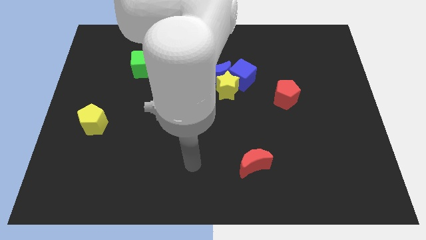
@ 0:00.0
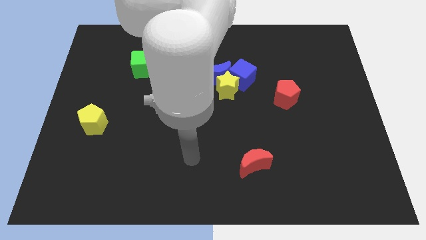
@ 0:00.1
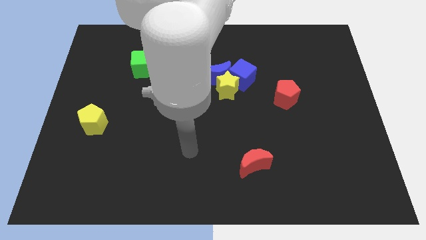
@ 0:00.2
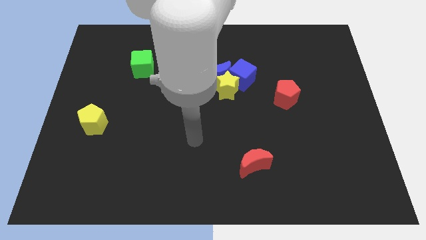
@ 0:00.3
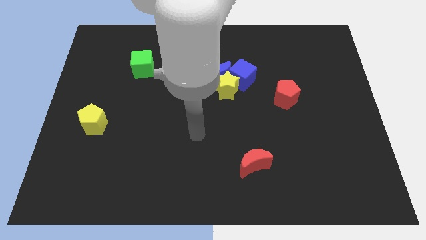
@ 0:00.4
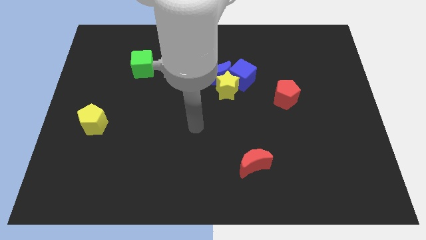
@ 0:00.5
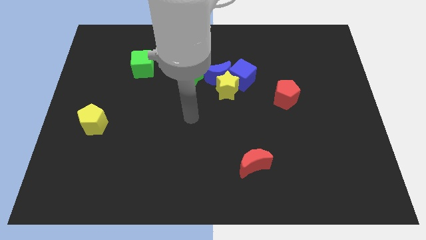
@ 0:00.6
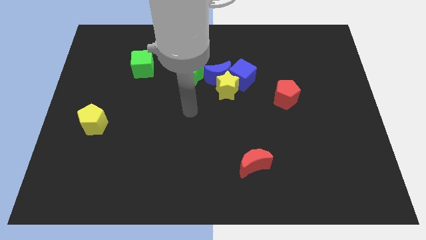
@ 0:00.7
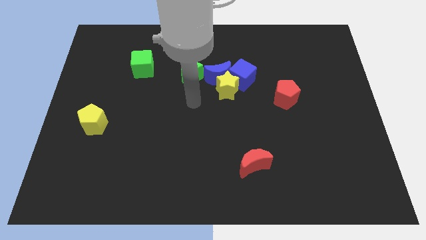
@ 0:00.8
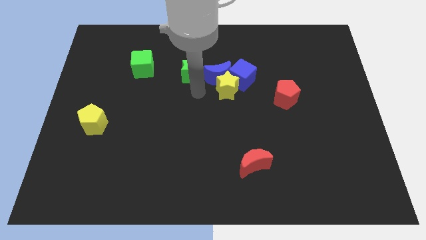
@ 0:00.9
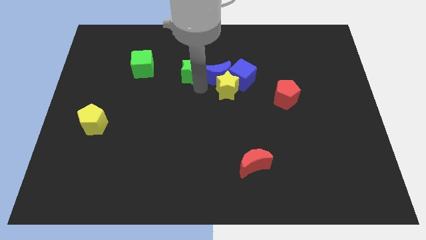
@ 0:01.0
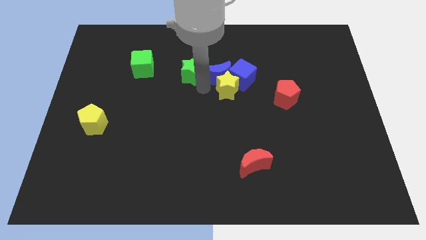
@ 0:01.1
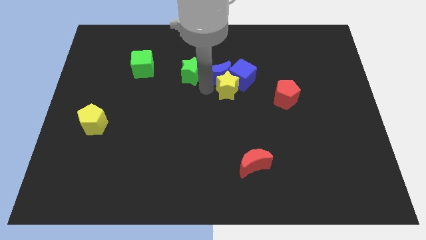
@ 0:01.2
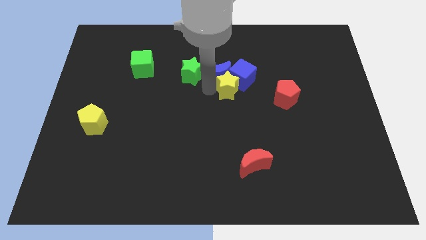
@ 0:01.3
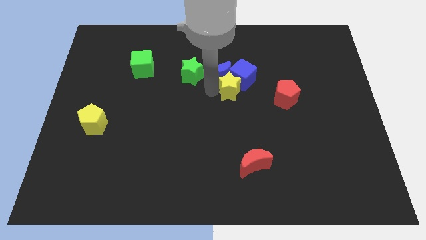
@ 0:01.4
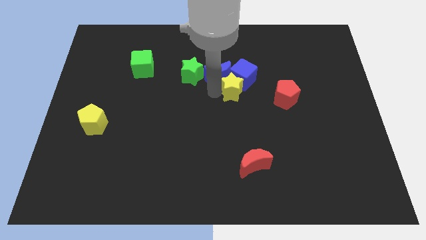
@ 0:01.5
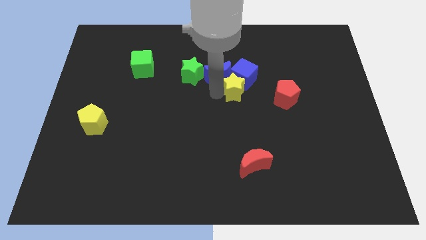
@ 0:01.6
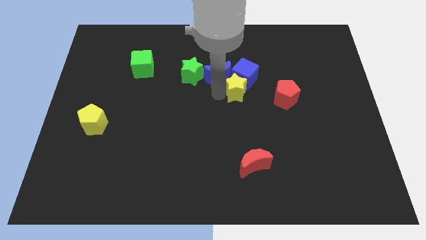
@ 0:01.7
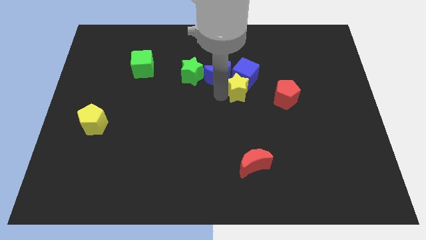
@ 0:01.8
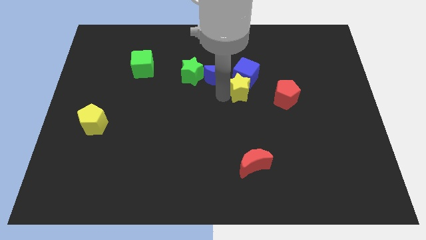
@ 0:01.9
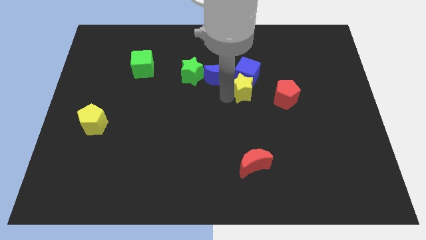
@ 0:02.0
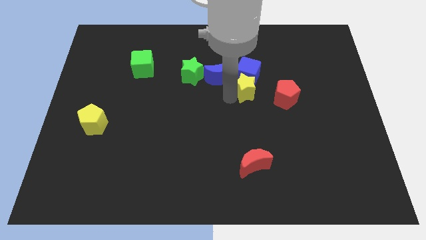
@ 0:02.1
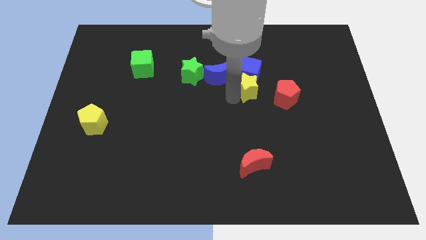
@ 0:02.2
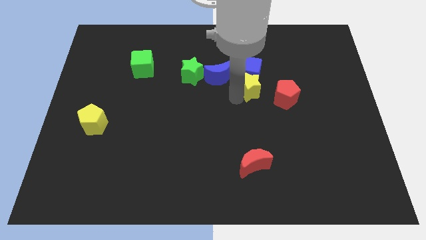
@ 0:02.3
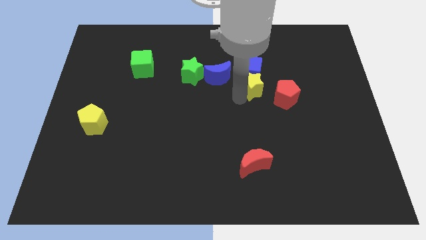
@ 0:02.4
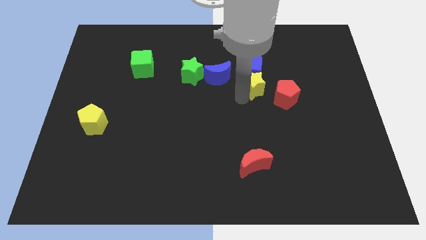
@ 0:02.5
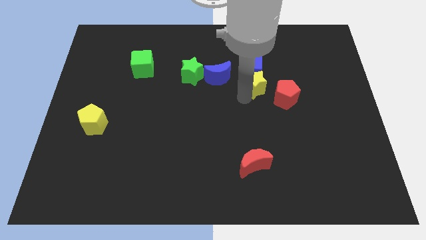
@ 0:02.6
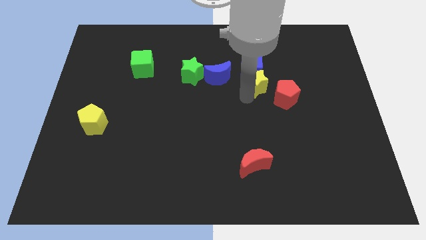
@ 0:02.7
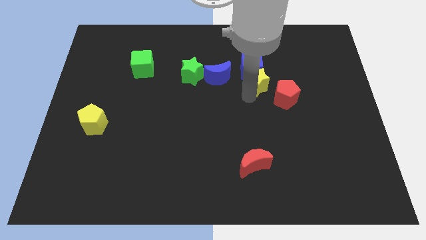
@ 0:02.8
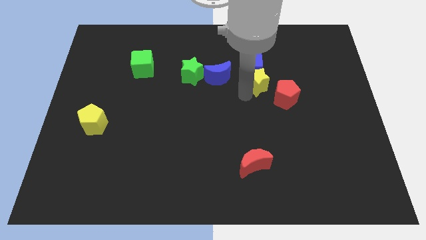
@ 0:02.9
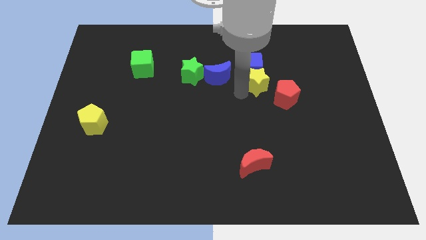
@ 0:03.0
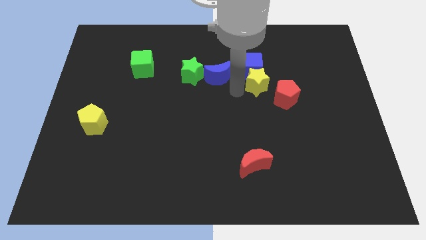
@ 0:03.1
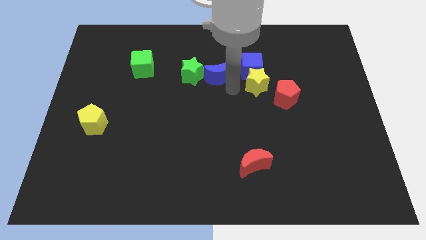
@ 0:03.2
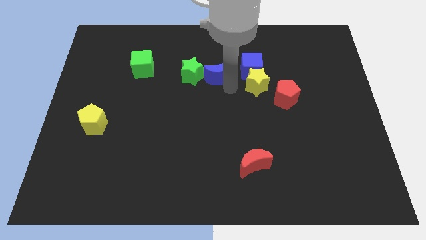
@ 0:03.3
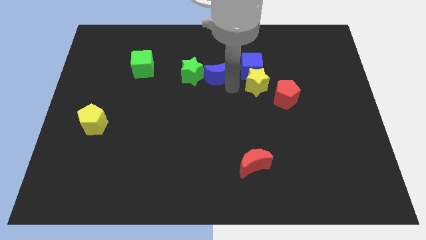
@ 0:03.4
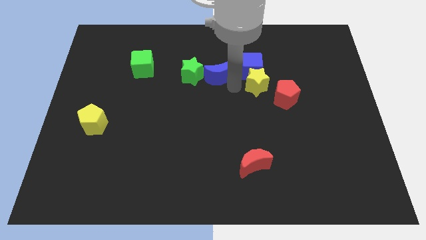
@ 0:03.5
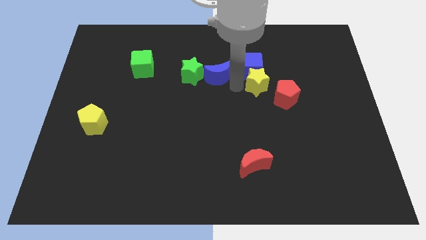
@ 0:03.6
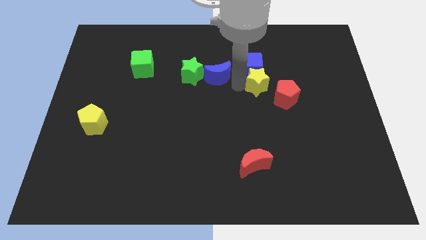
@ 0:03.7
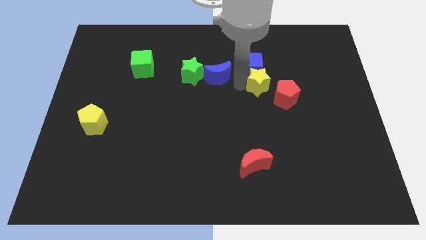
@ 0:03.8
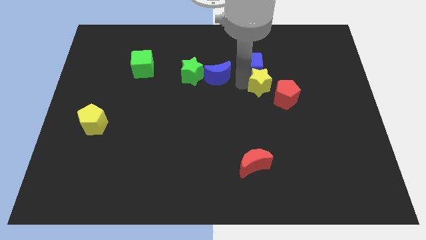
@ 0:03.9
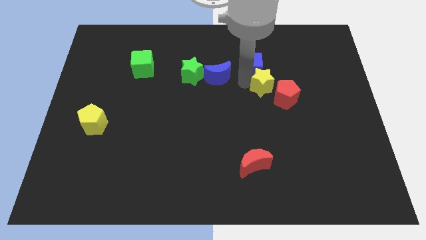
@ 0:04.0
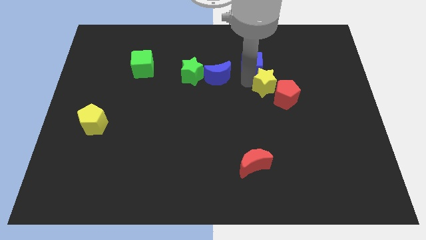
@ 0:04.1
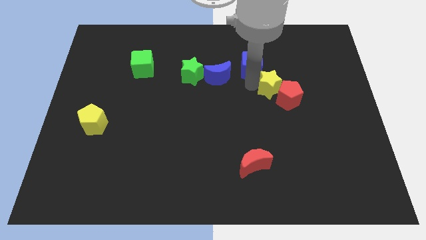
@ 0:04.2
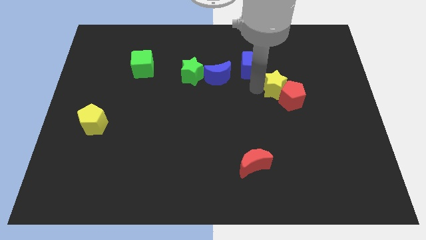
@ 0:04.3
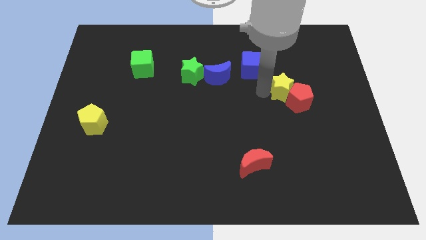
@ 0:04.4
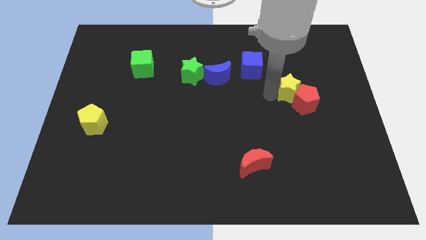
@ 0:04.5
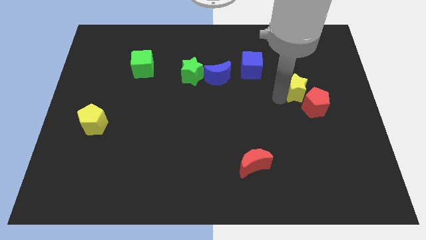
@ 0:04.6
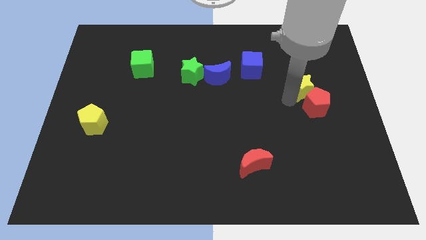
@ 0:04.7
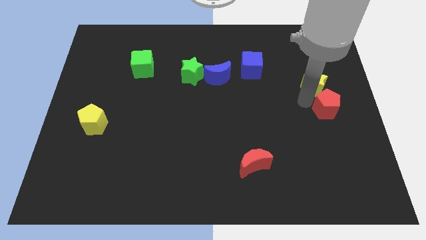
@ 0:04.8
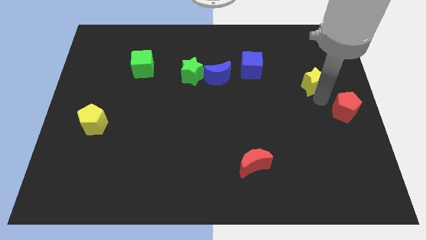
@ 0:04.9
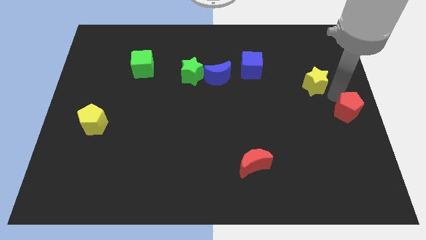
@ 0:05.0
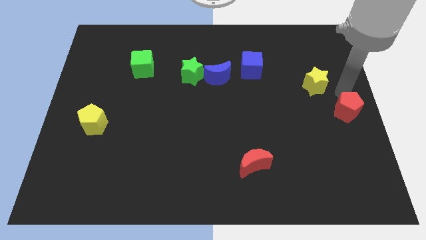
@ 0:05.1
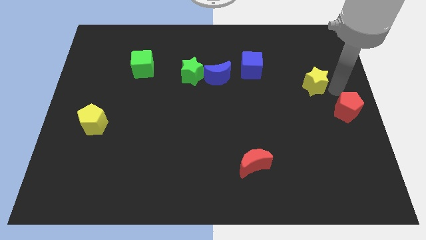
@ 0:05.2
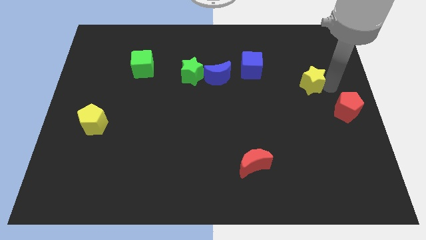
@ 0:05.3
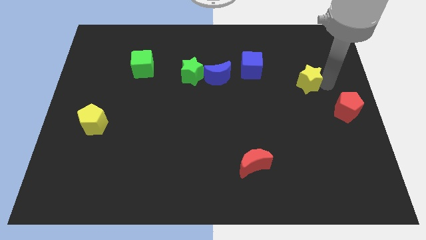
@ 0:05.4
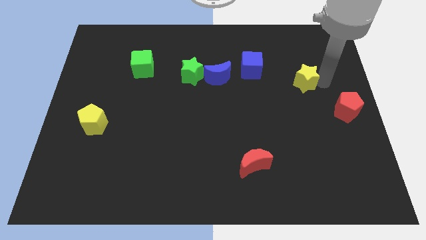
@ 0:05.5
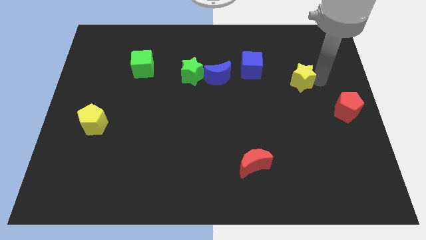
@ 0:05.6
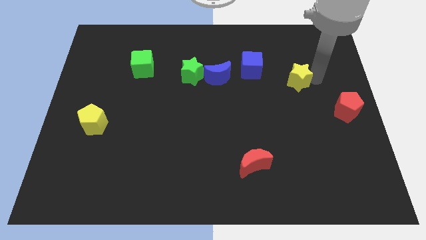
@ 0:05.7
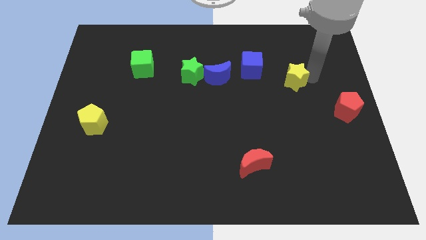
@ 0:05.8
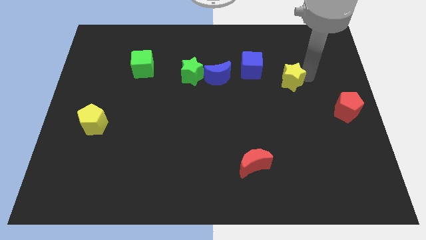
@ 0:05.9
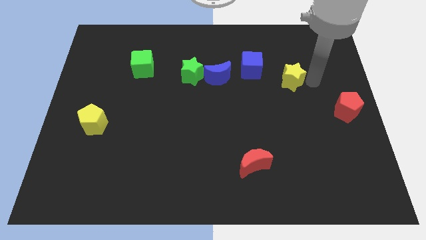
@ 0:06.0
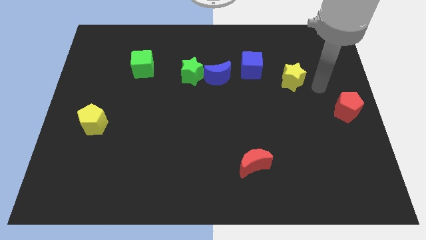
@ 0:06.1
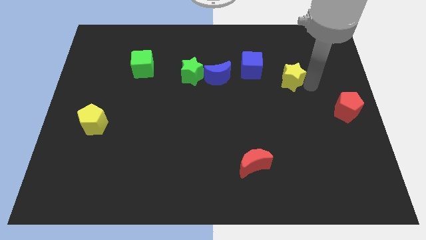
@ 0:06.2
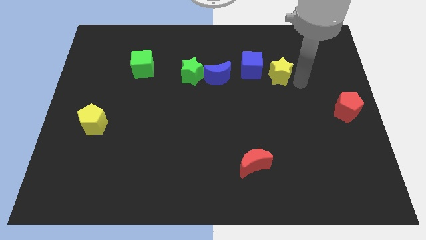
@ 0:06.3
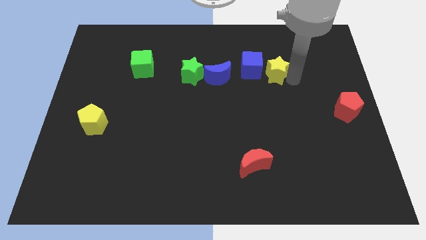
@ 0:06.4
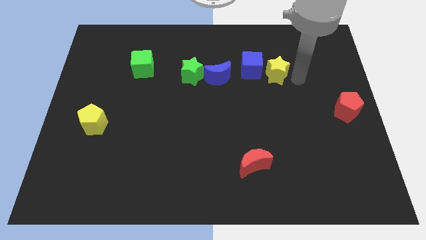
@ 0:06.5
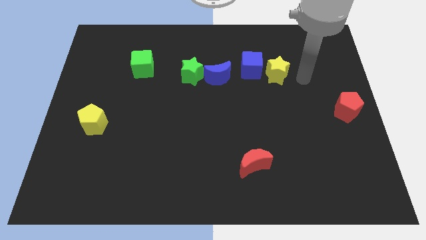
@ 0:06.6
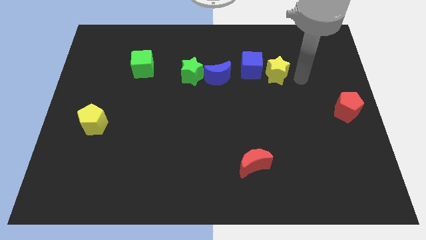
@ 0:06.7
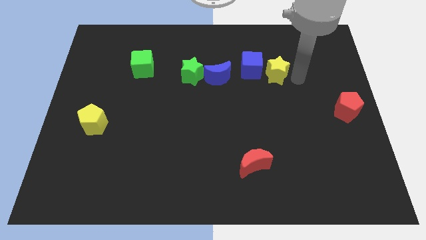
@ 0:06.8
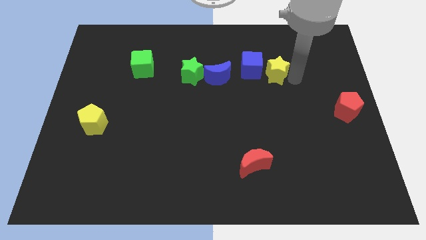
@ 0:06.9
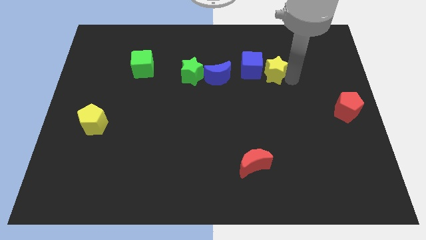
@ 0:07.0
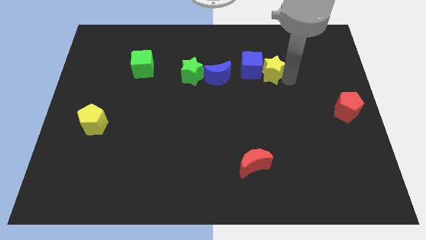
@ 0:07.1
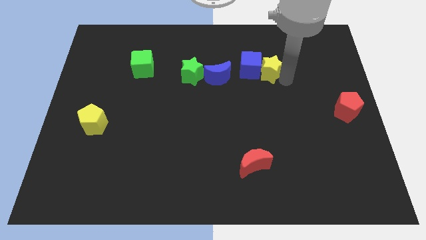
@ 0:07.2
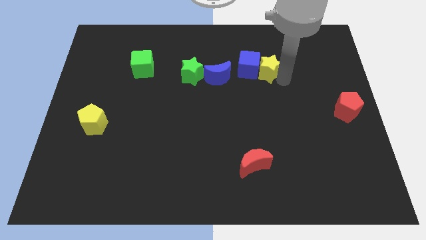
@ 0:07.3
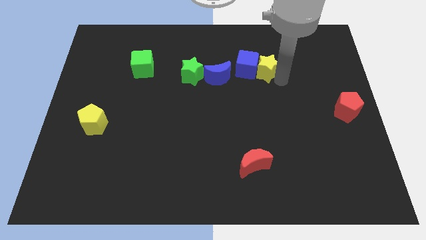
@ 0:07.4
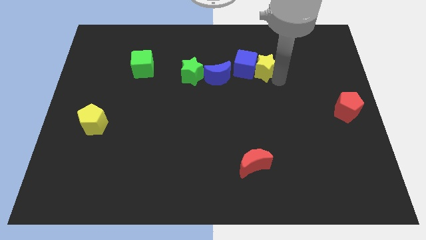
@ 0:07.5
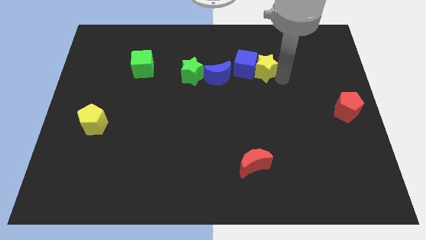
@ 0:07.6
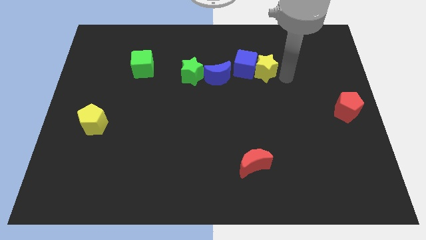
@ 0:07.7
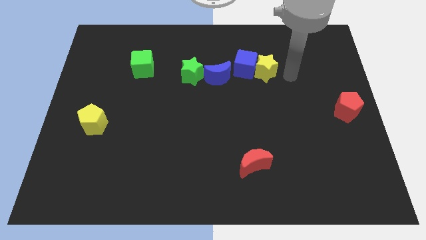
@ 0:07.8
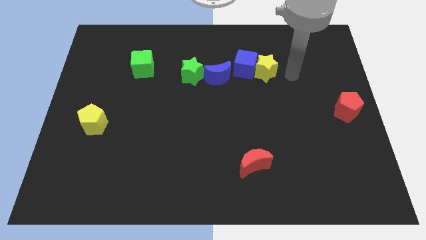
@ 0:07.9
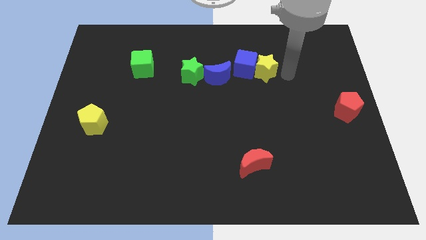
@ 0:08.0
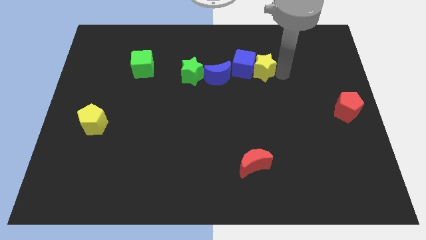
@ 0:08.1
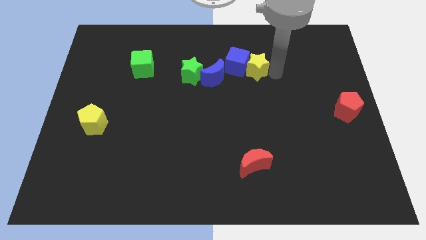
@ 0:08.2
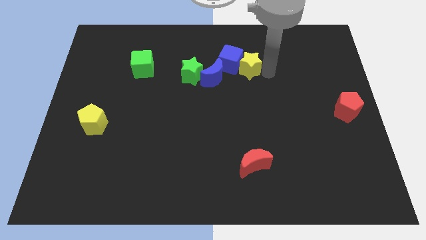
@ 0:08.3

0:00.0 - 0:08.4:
put the yellow star to the top right of the blue moon
